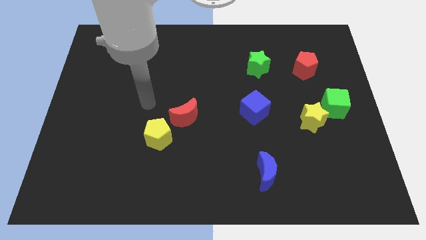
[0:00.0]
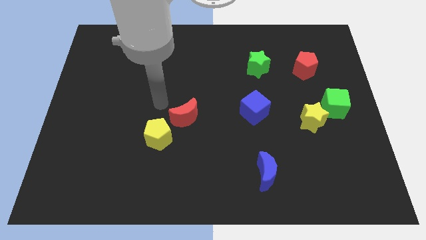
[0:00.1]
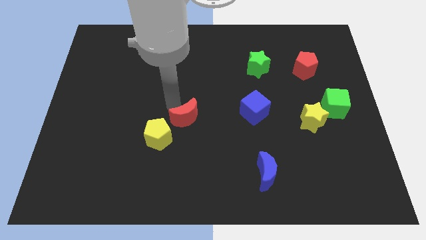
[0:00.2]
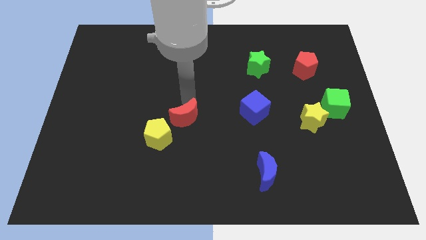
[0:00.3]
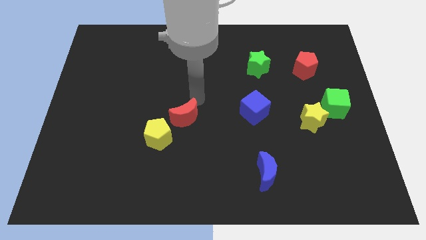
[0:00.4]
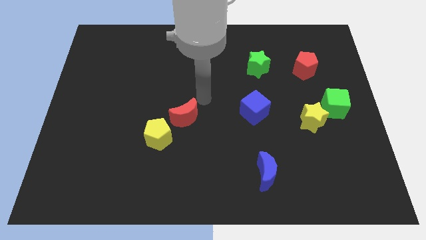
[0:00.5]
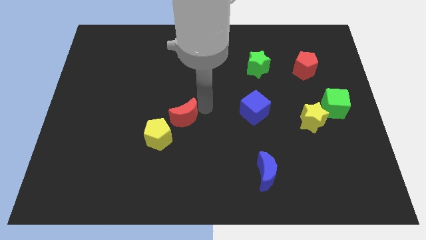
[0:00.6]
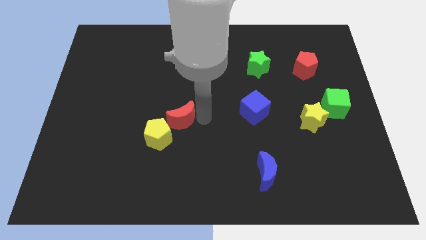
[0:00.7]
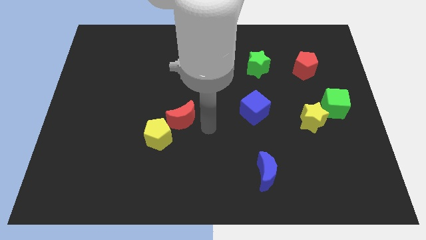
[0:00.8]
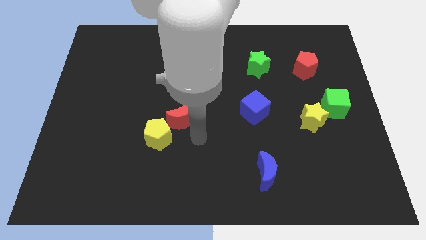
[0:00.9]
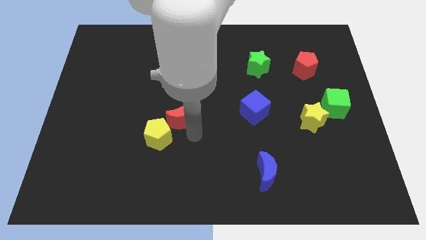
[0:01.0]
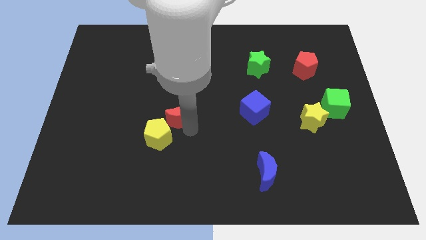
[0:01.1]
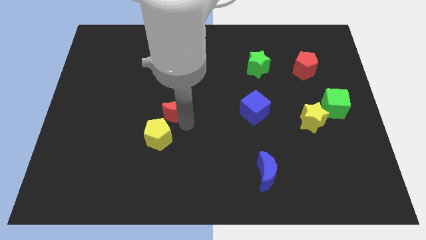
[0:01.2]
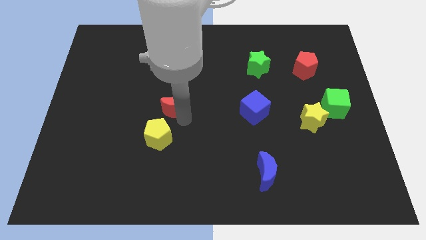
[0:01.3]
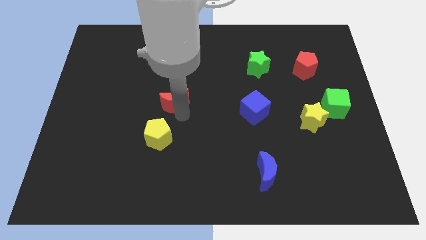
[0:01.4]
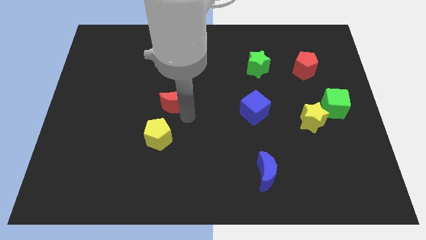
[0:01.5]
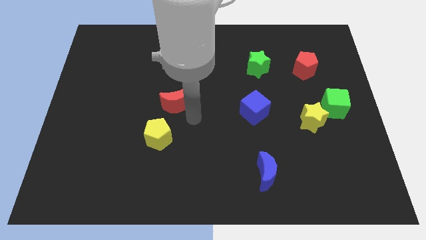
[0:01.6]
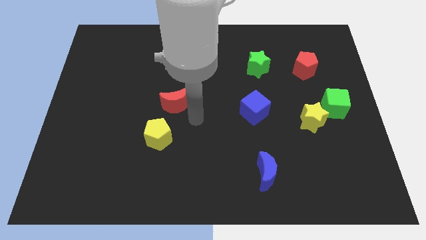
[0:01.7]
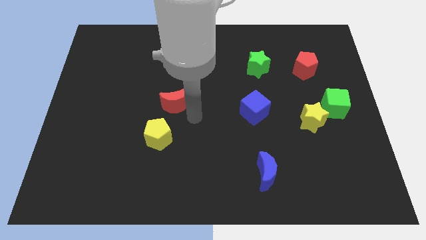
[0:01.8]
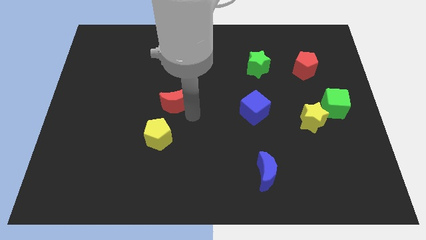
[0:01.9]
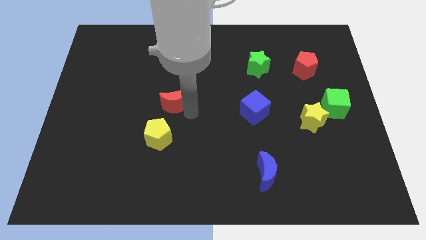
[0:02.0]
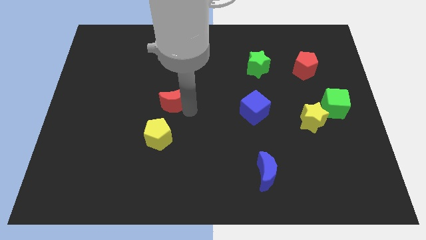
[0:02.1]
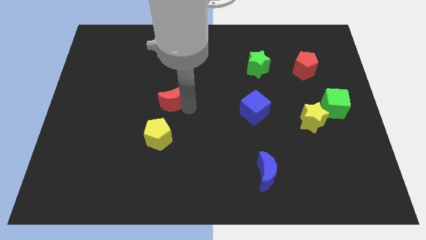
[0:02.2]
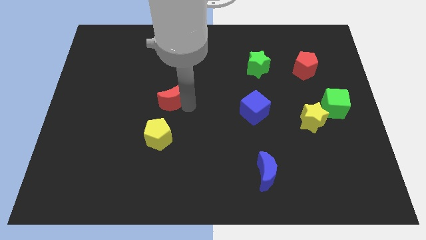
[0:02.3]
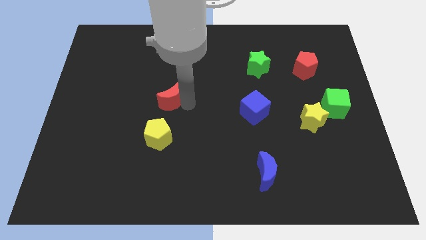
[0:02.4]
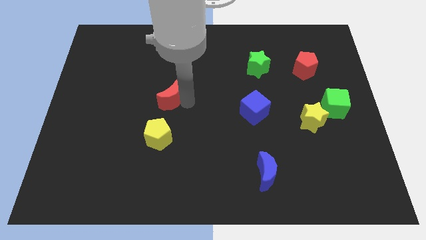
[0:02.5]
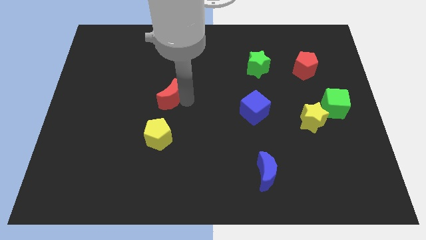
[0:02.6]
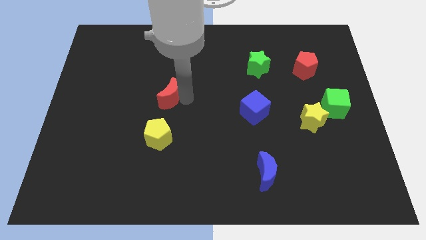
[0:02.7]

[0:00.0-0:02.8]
slightly push the red moon up and left diagonally

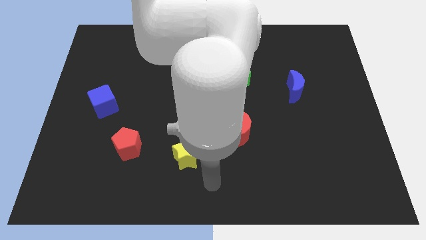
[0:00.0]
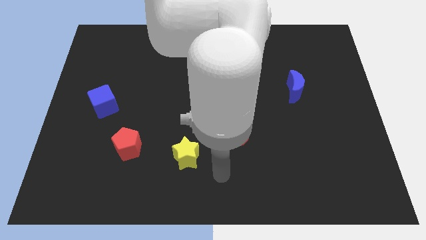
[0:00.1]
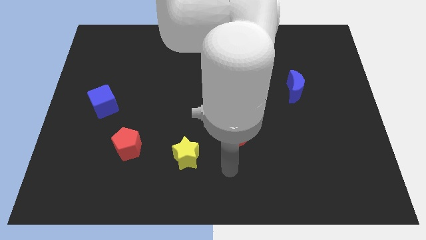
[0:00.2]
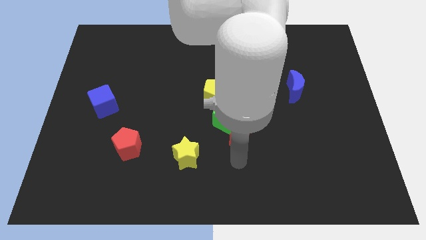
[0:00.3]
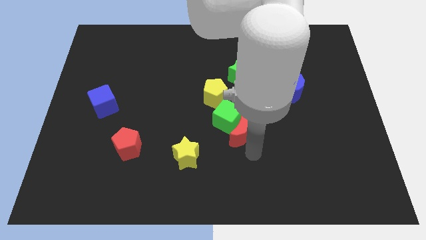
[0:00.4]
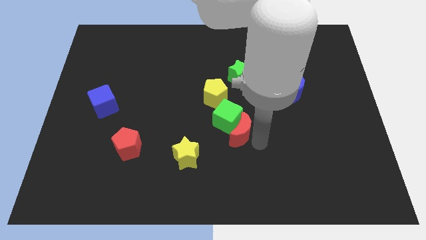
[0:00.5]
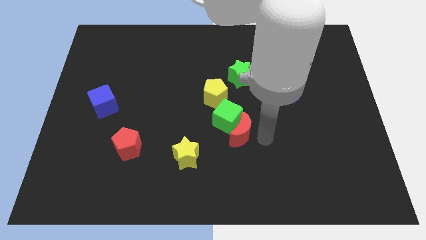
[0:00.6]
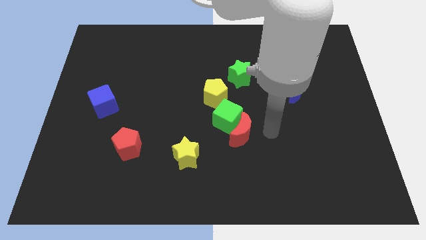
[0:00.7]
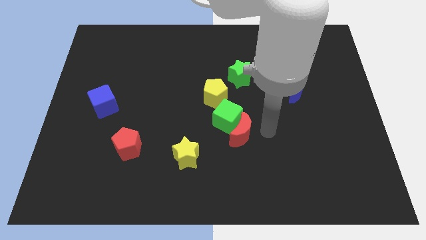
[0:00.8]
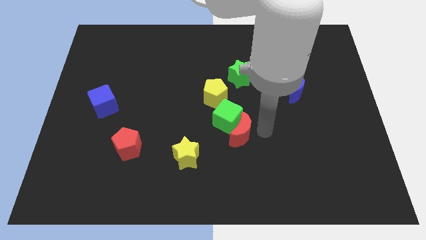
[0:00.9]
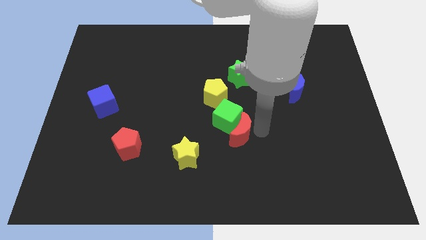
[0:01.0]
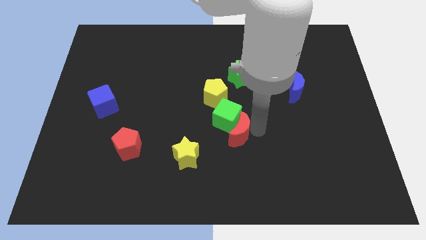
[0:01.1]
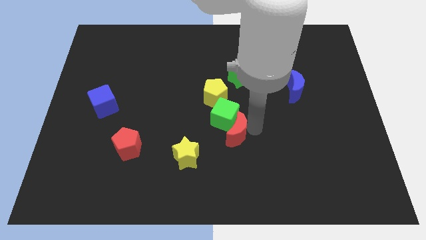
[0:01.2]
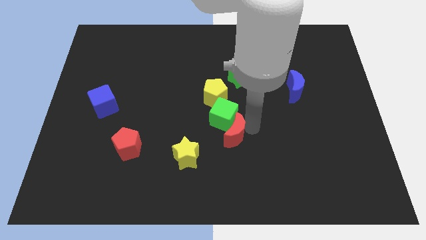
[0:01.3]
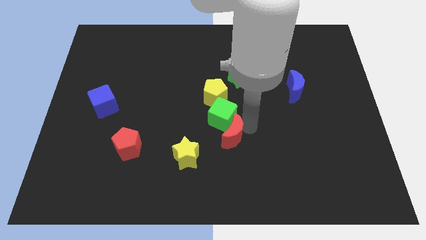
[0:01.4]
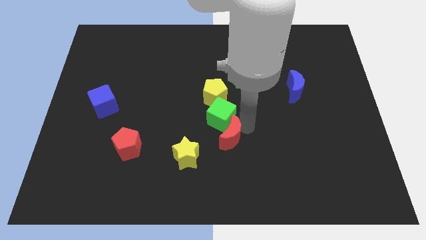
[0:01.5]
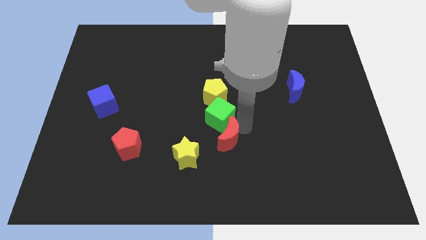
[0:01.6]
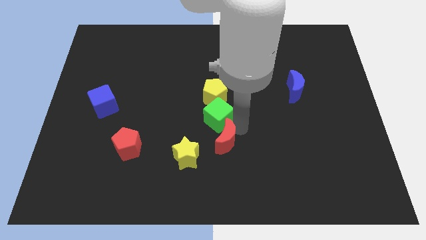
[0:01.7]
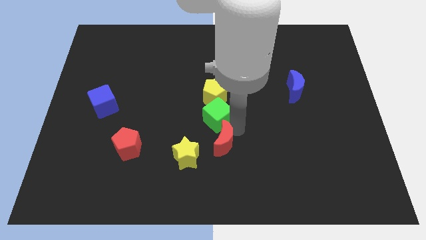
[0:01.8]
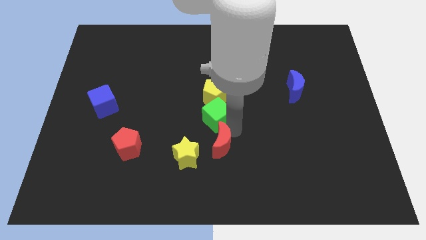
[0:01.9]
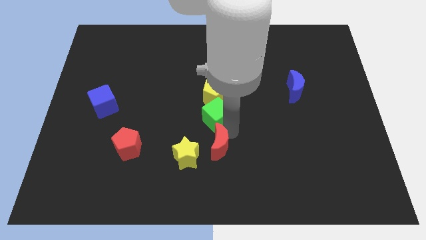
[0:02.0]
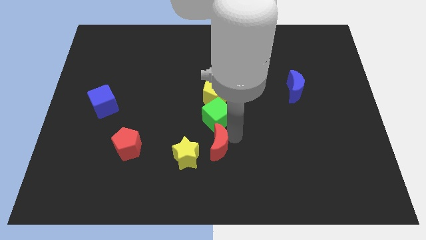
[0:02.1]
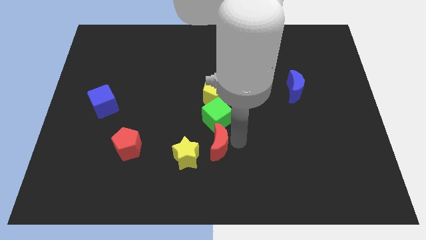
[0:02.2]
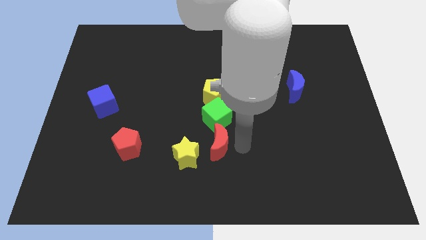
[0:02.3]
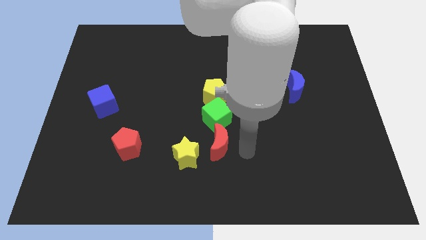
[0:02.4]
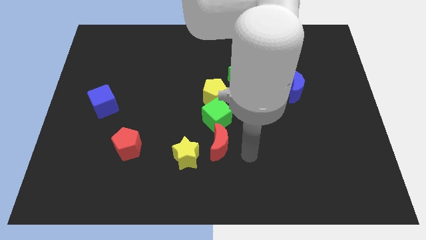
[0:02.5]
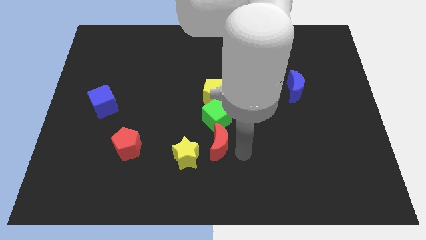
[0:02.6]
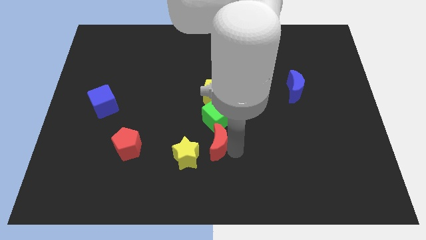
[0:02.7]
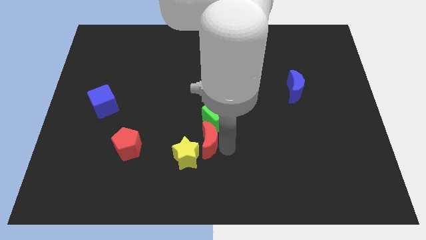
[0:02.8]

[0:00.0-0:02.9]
push the red moon left a little bit

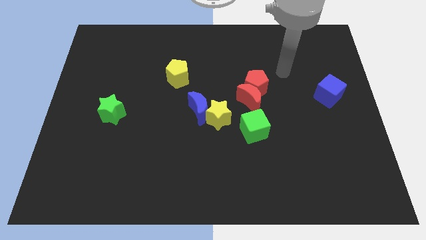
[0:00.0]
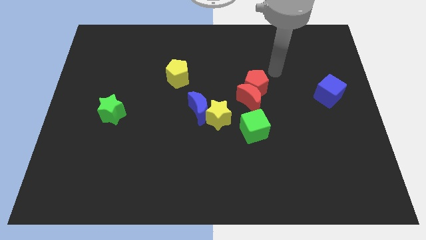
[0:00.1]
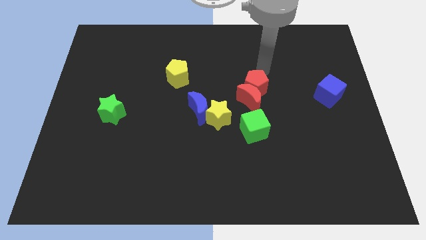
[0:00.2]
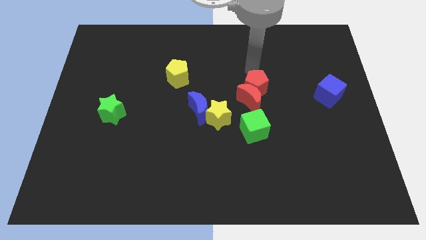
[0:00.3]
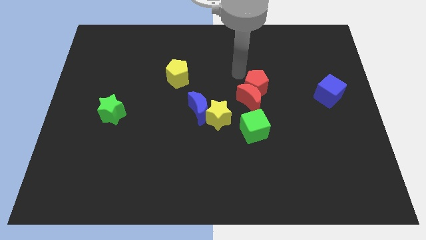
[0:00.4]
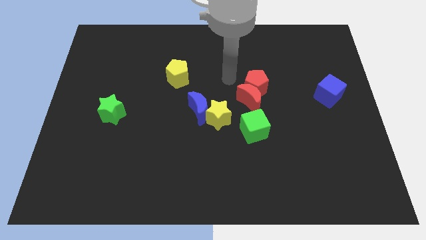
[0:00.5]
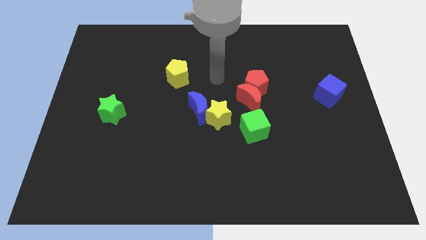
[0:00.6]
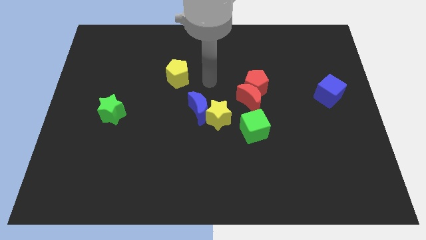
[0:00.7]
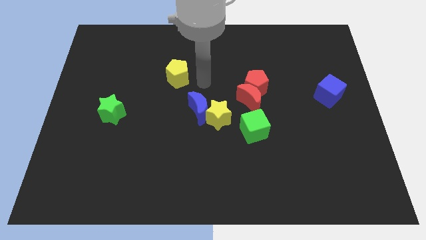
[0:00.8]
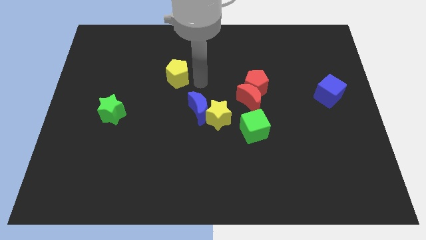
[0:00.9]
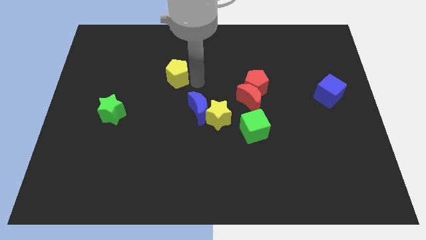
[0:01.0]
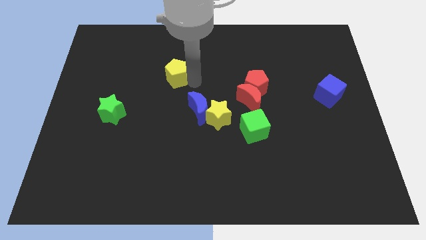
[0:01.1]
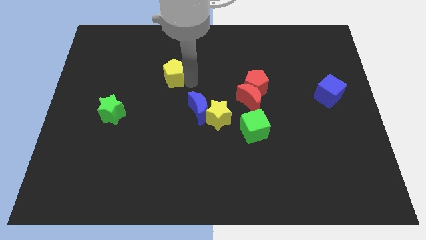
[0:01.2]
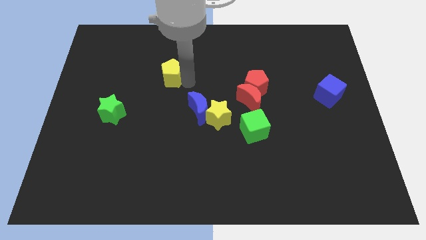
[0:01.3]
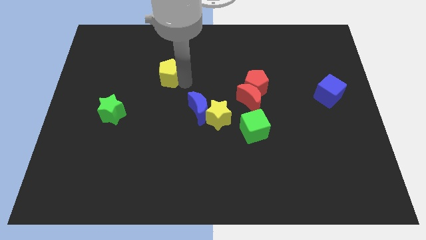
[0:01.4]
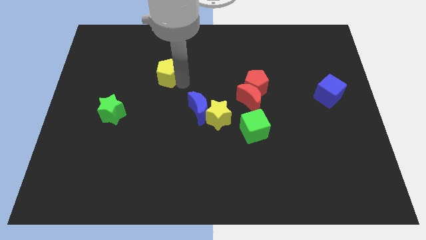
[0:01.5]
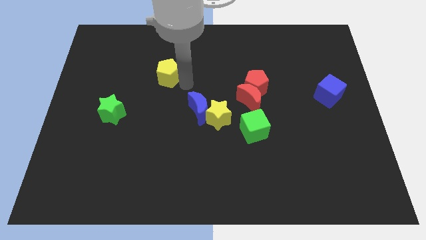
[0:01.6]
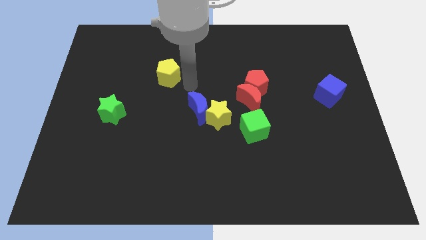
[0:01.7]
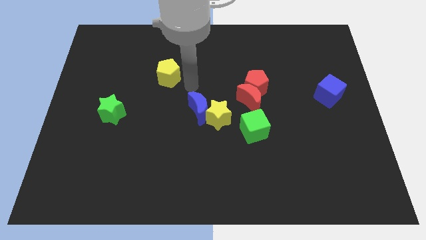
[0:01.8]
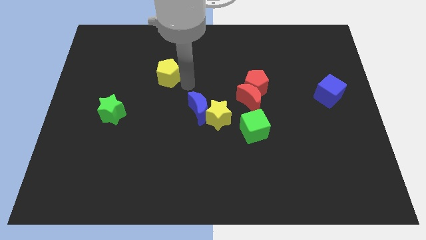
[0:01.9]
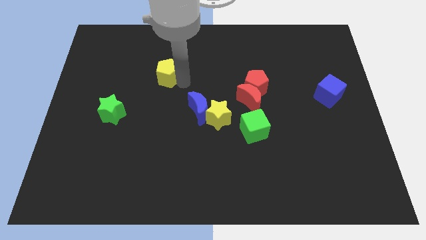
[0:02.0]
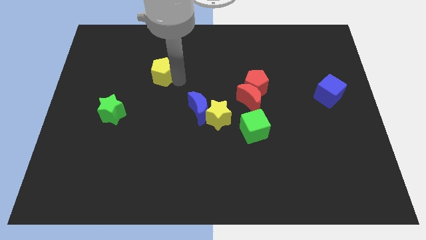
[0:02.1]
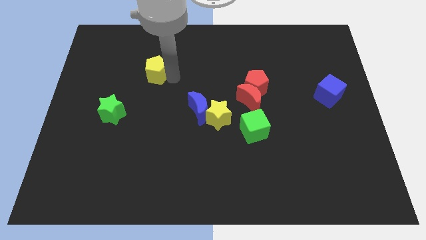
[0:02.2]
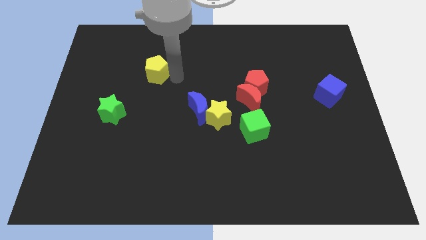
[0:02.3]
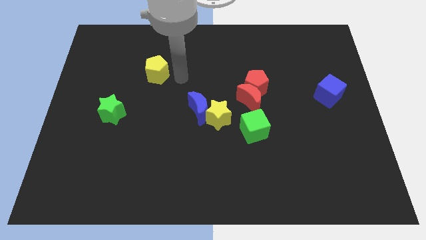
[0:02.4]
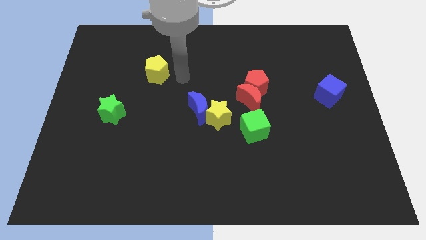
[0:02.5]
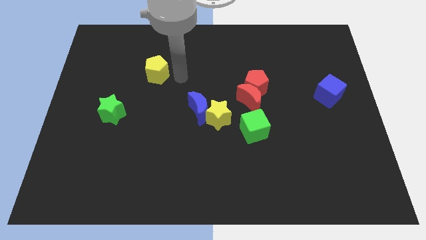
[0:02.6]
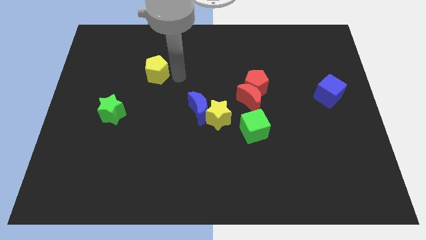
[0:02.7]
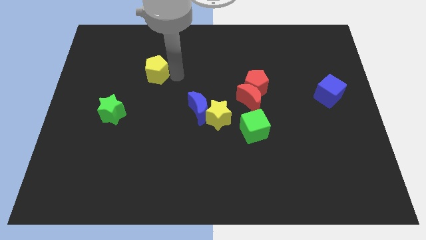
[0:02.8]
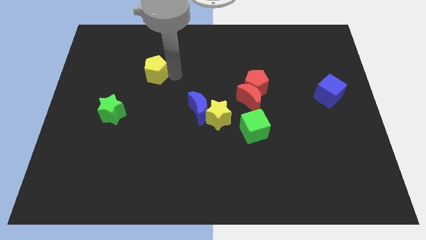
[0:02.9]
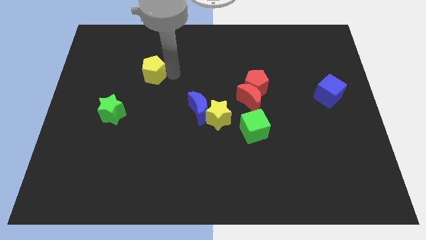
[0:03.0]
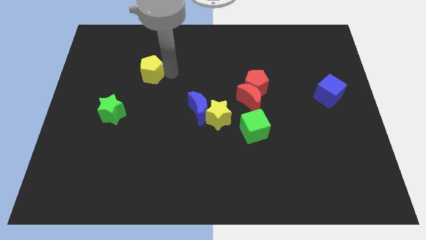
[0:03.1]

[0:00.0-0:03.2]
slide the yellow pentagon somewhat to the left
